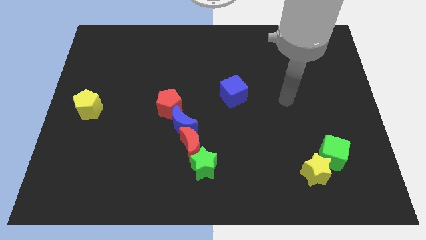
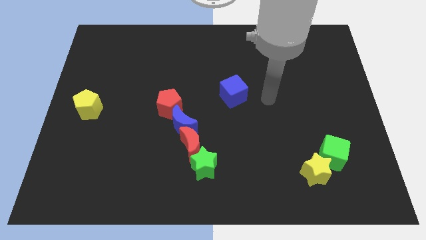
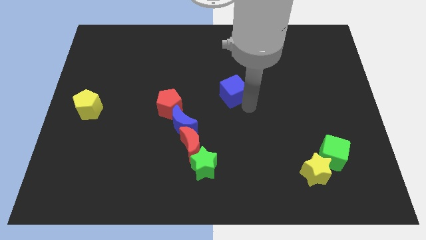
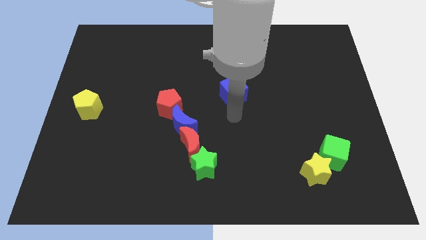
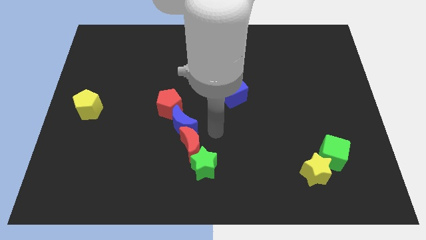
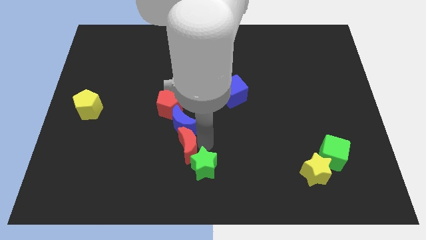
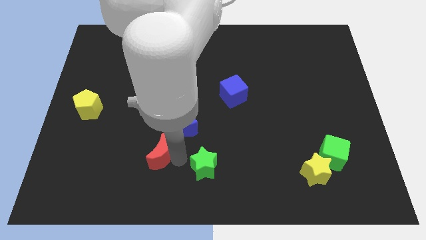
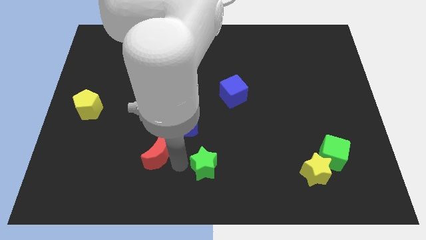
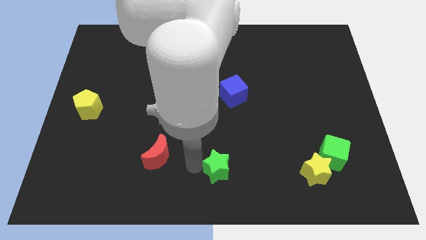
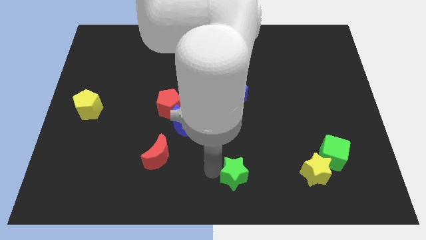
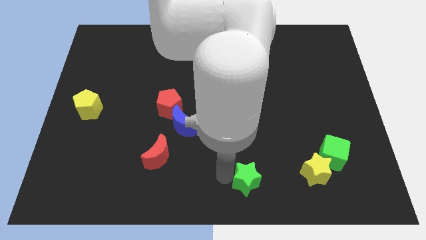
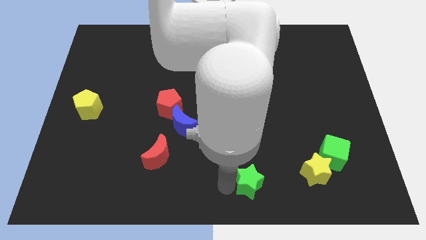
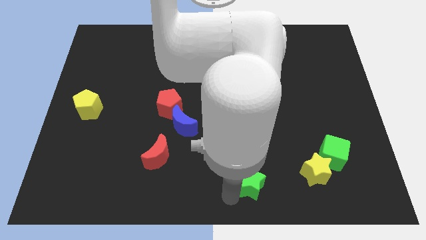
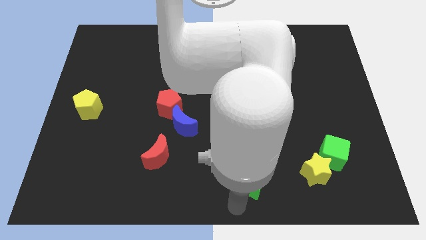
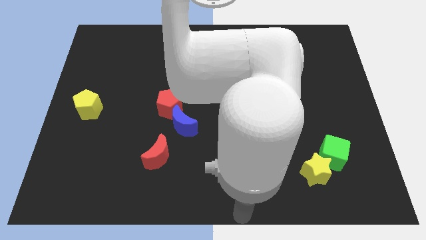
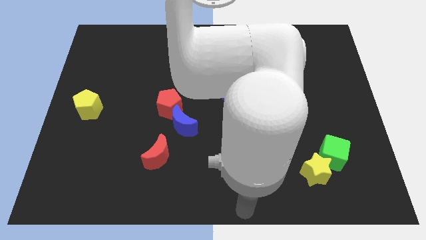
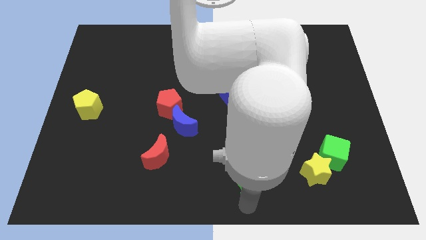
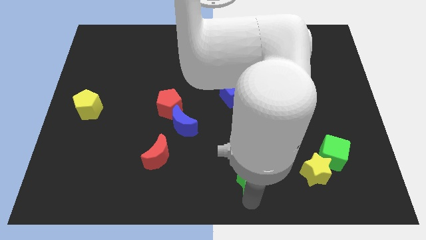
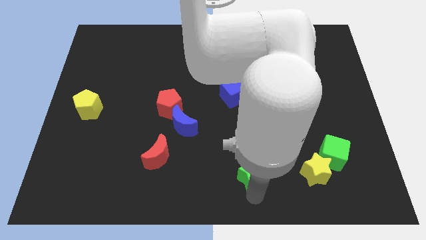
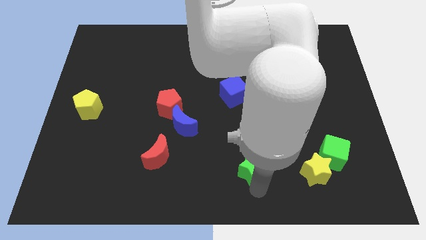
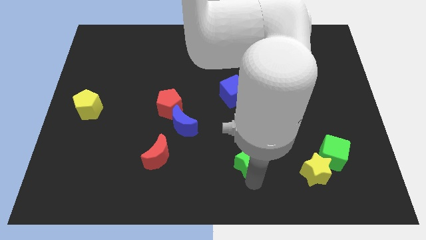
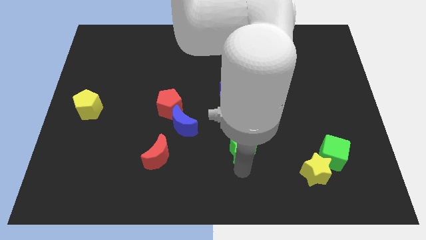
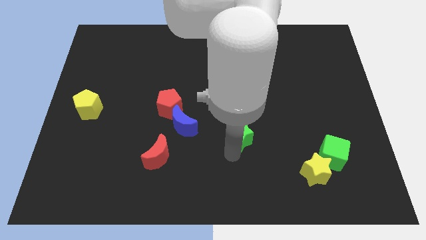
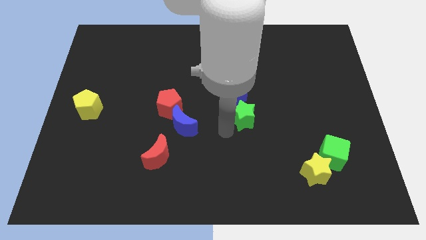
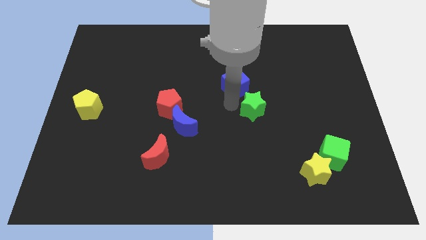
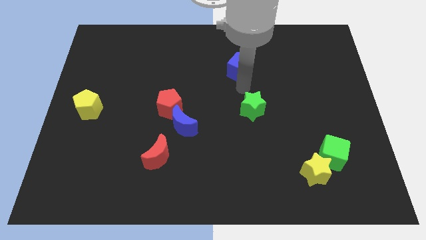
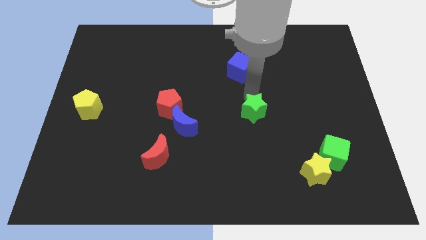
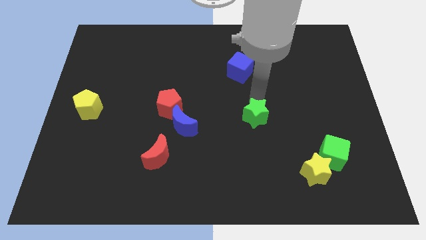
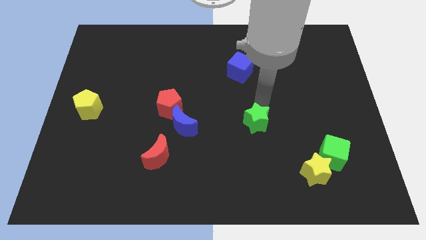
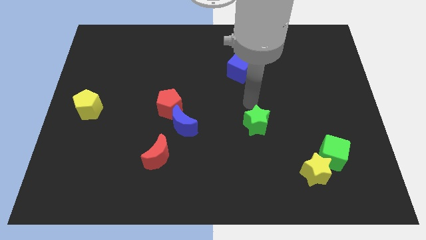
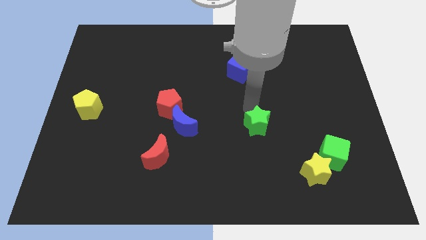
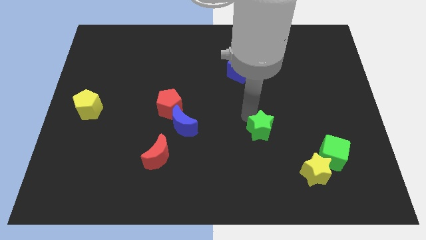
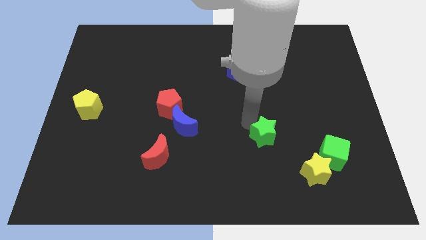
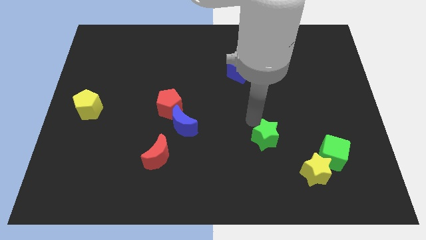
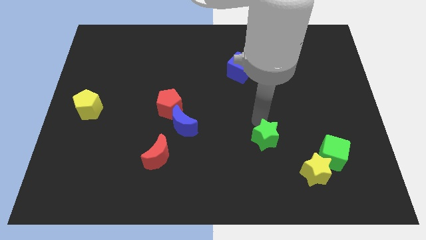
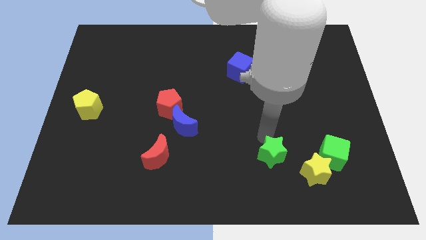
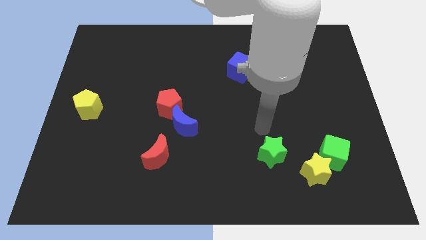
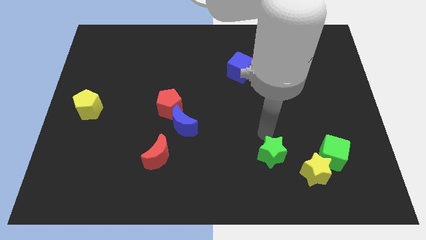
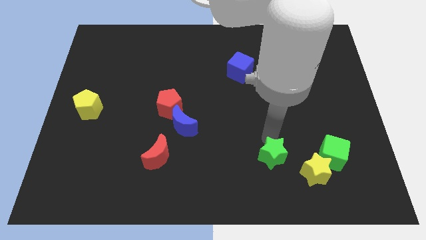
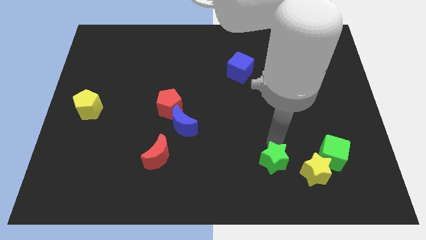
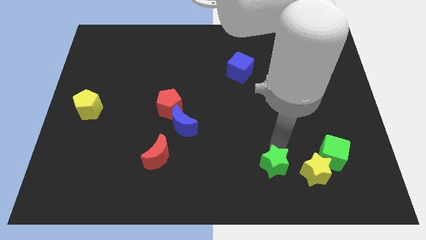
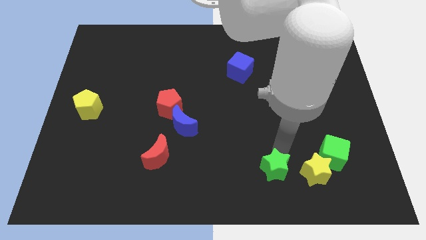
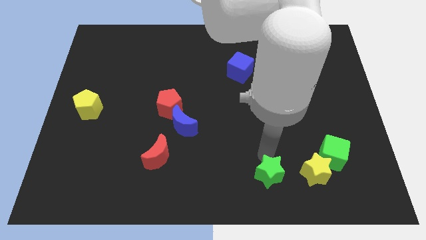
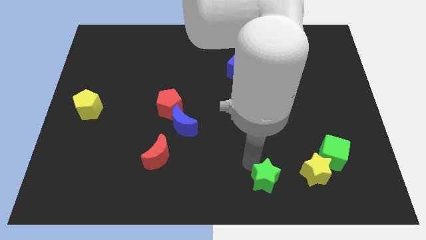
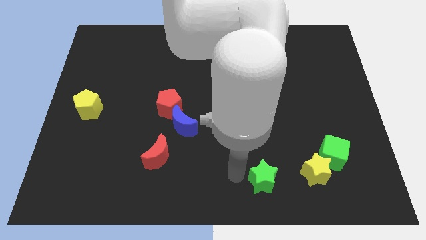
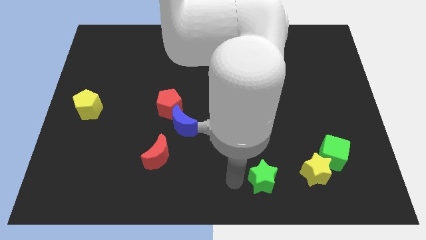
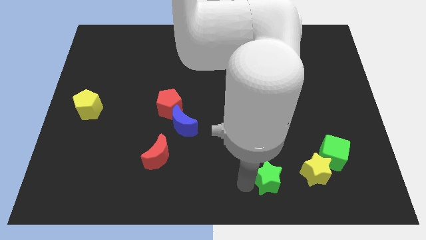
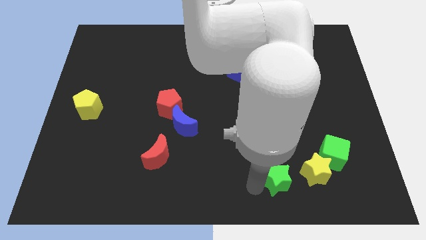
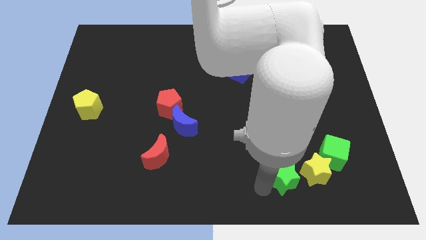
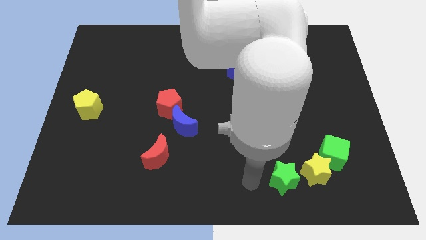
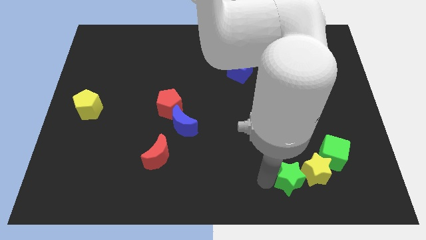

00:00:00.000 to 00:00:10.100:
move the green star to the bottom left side of the green cube
